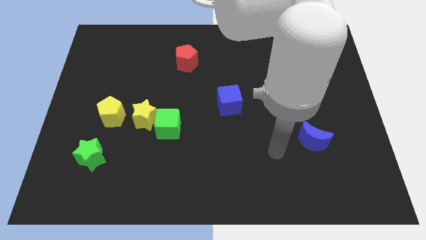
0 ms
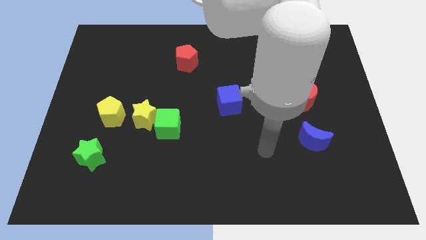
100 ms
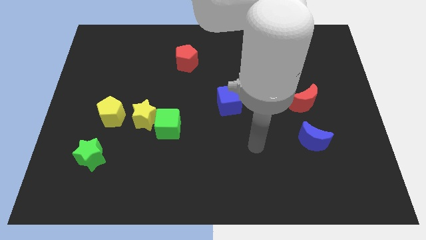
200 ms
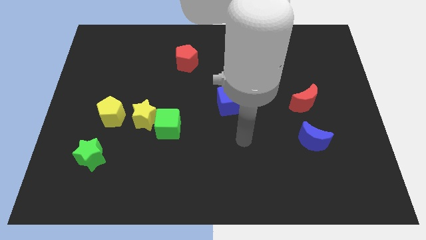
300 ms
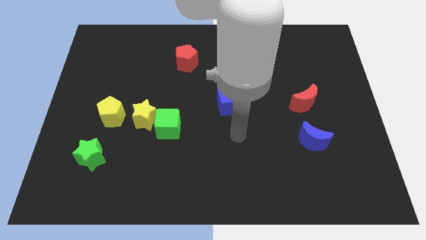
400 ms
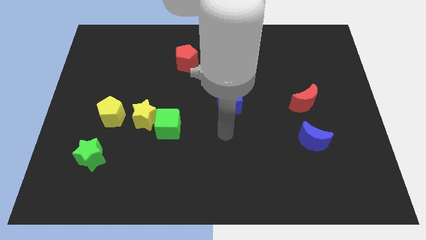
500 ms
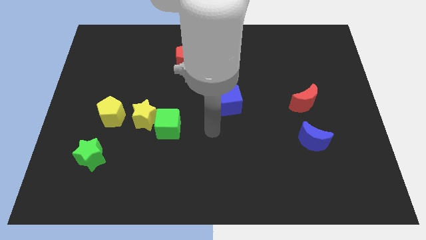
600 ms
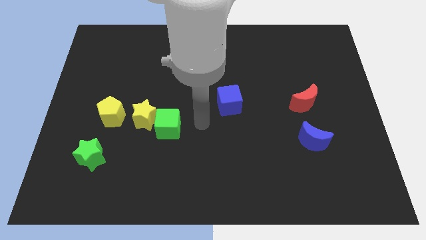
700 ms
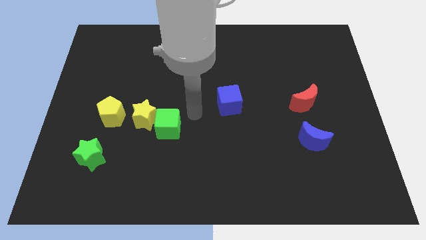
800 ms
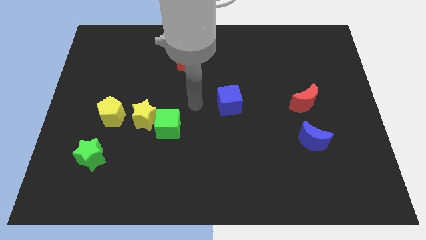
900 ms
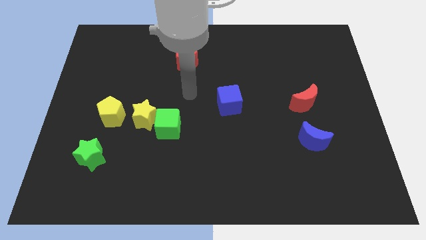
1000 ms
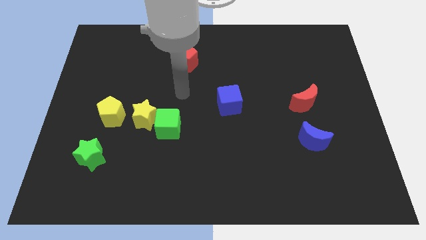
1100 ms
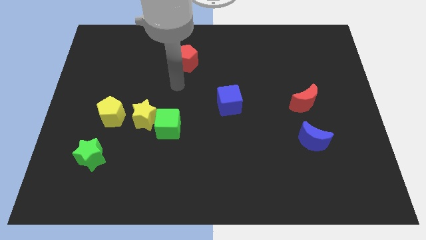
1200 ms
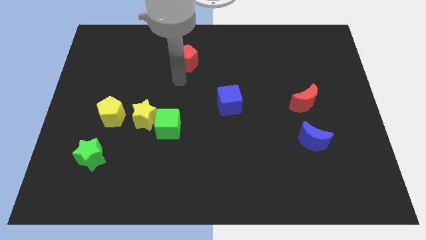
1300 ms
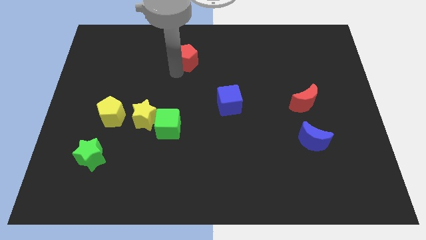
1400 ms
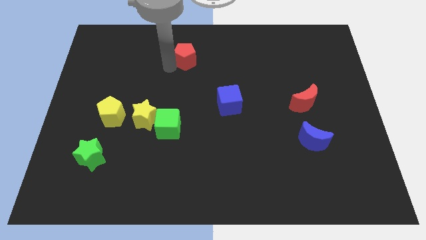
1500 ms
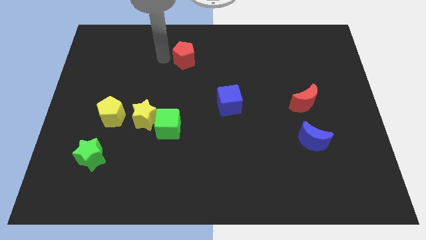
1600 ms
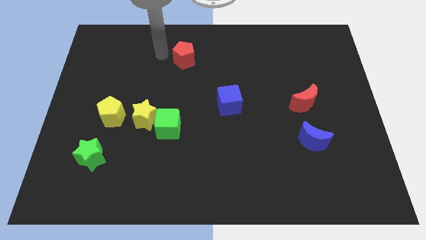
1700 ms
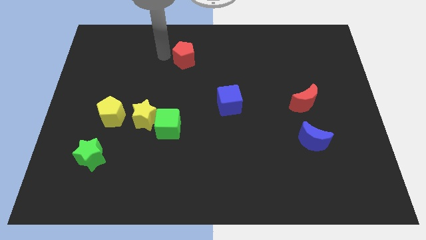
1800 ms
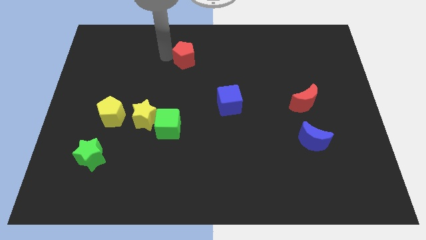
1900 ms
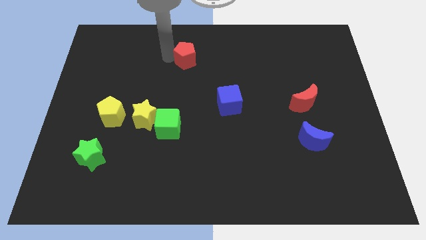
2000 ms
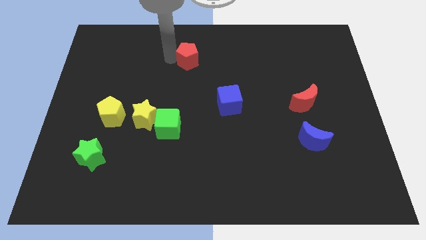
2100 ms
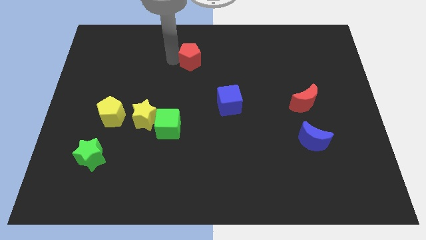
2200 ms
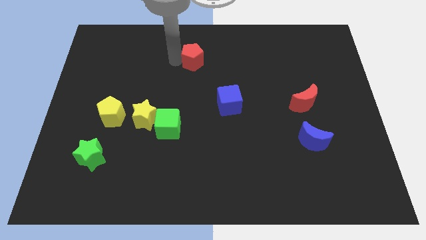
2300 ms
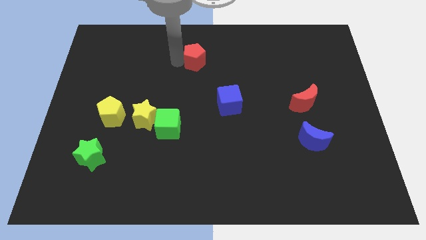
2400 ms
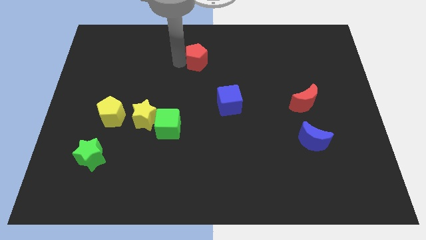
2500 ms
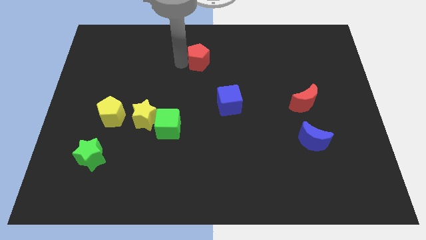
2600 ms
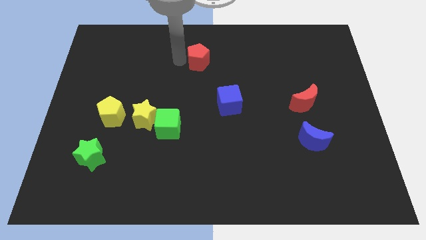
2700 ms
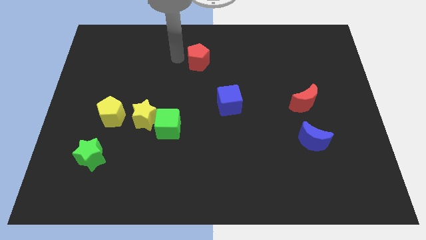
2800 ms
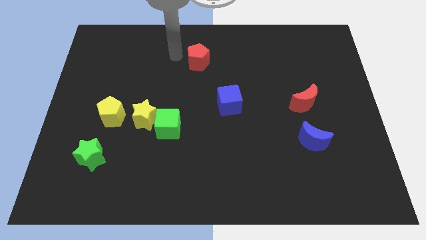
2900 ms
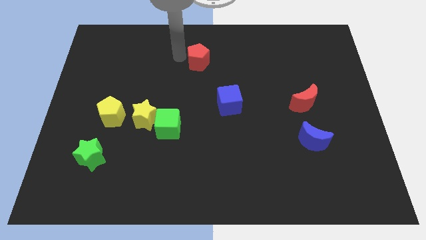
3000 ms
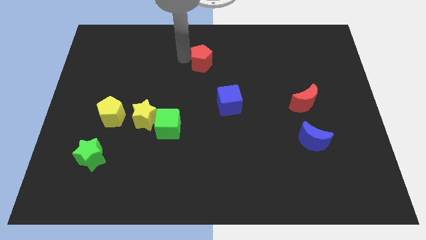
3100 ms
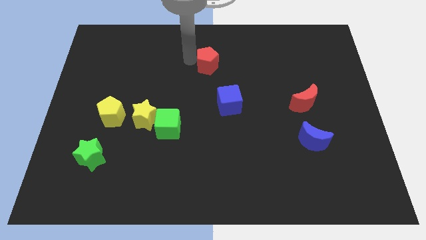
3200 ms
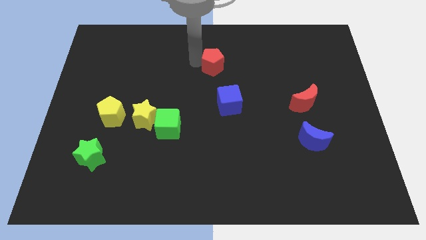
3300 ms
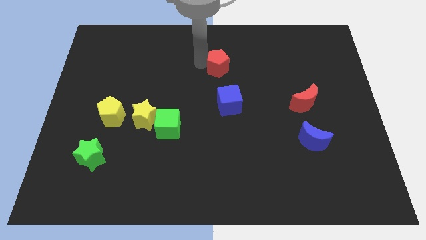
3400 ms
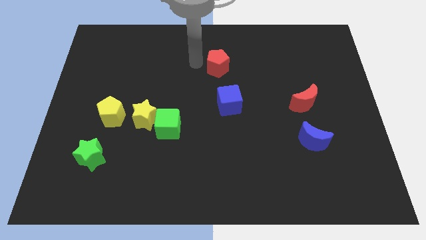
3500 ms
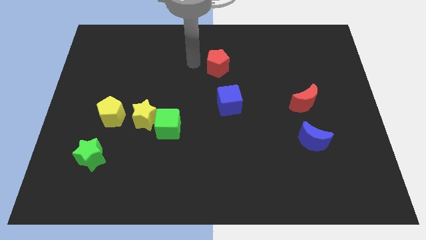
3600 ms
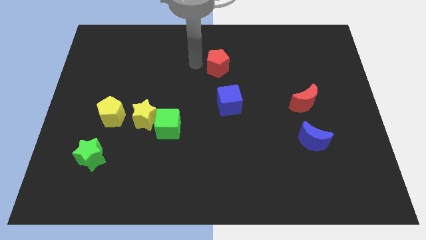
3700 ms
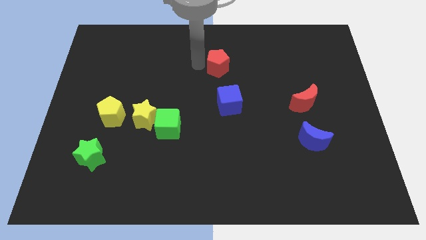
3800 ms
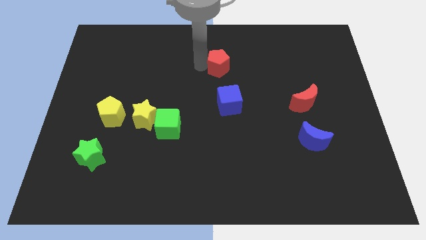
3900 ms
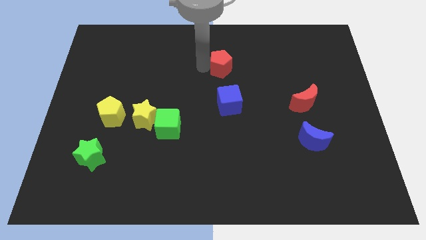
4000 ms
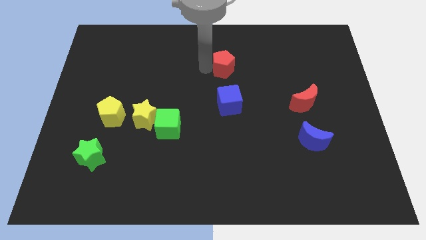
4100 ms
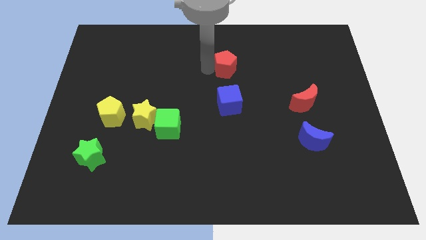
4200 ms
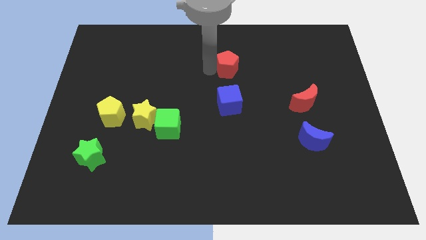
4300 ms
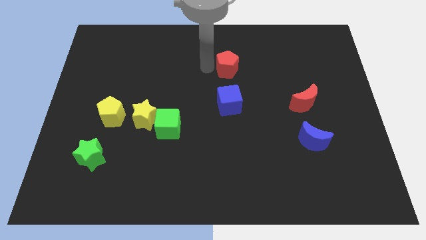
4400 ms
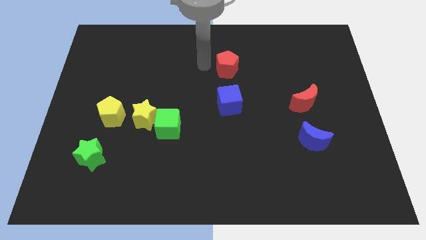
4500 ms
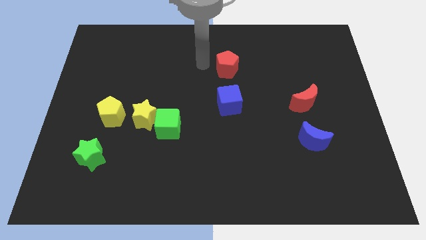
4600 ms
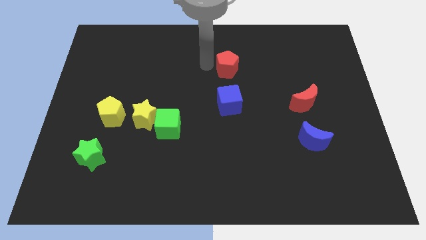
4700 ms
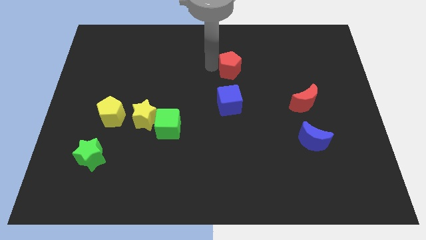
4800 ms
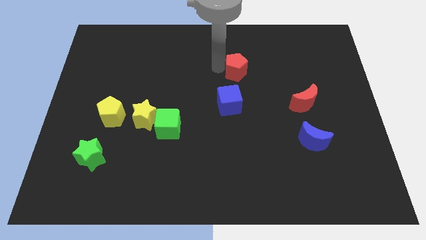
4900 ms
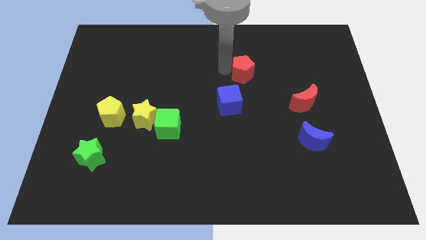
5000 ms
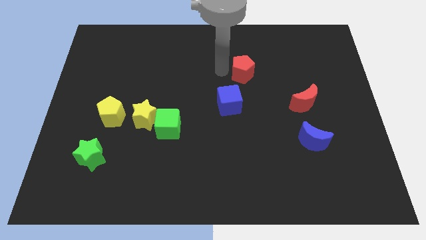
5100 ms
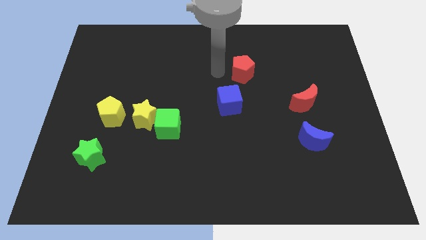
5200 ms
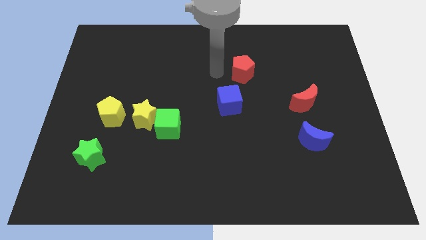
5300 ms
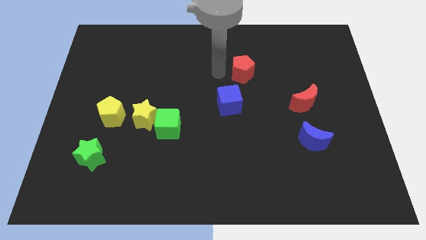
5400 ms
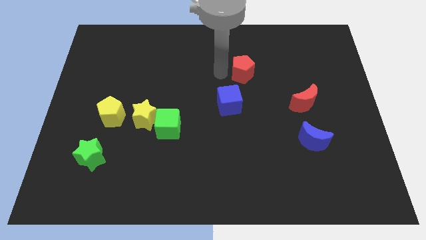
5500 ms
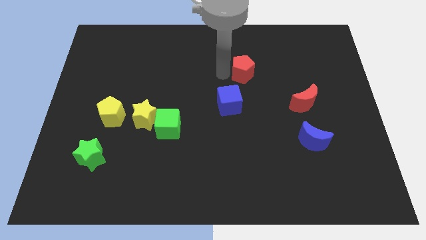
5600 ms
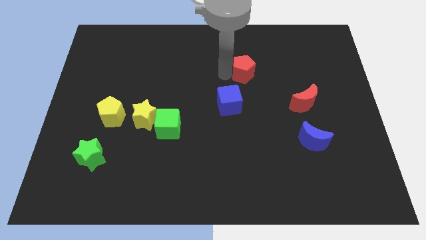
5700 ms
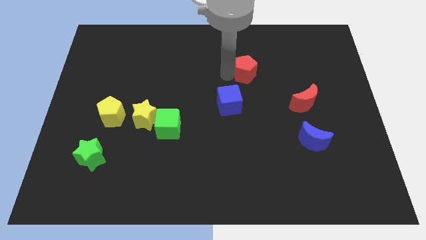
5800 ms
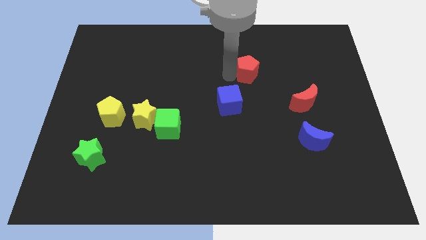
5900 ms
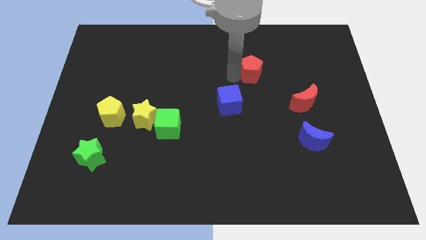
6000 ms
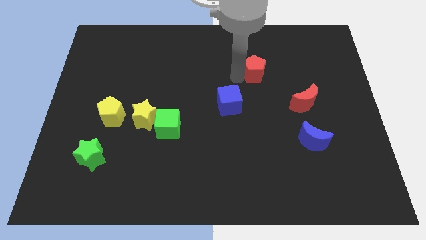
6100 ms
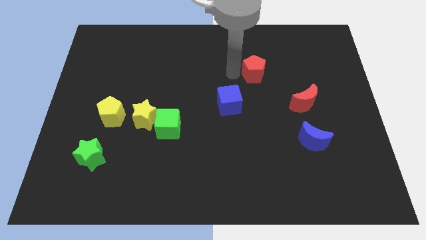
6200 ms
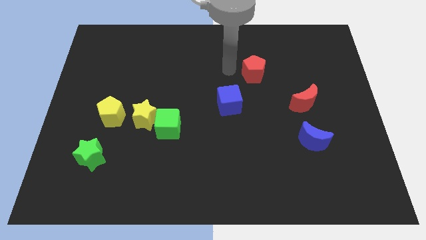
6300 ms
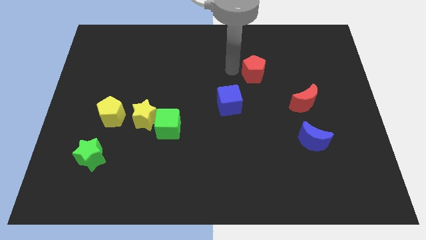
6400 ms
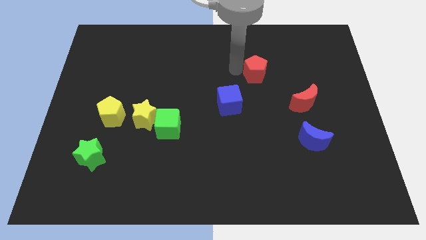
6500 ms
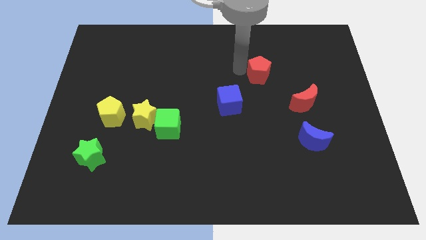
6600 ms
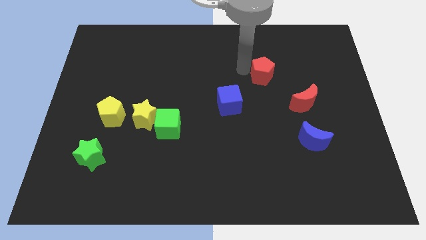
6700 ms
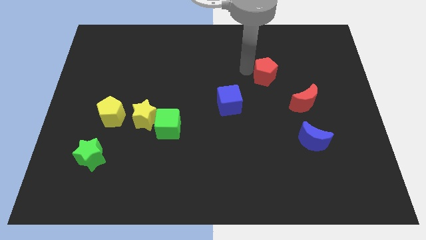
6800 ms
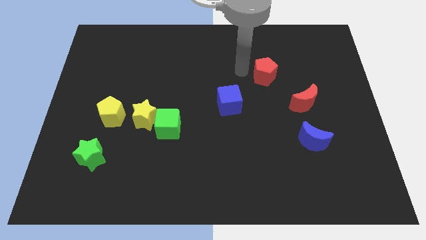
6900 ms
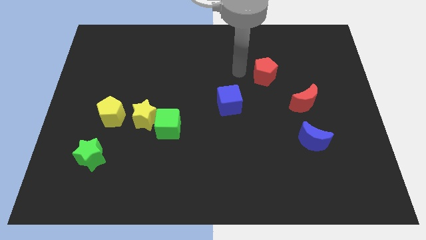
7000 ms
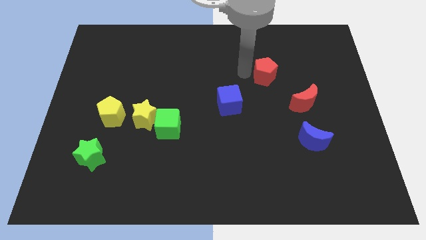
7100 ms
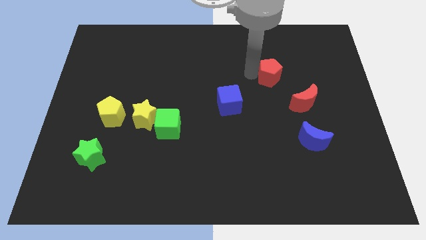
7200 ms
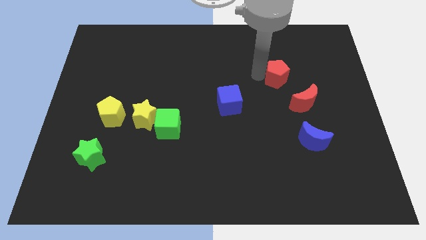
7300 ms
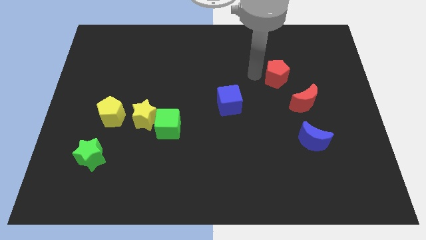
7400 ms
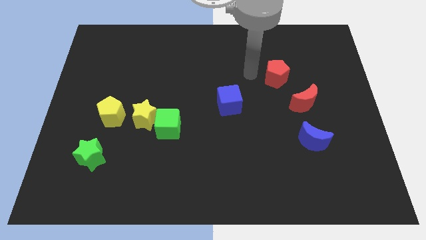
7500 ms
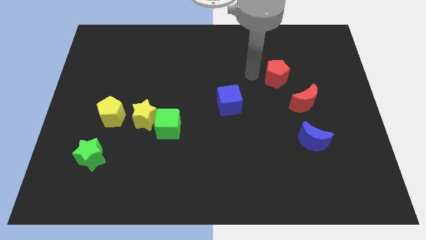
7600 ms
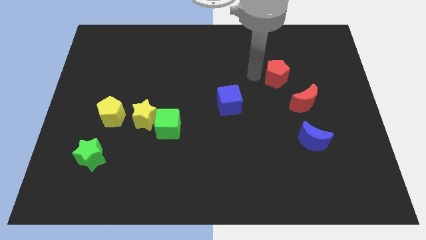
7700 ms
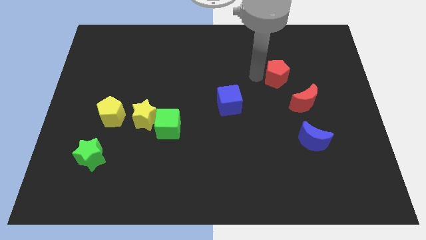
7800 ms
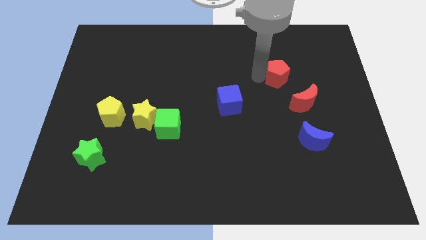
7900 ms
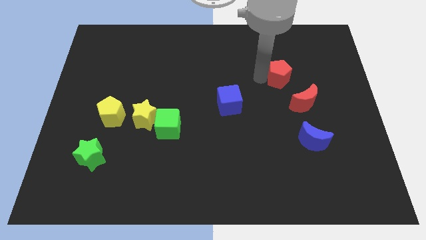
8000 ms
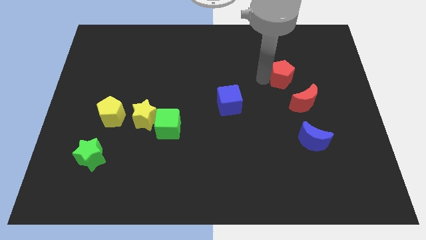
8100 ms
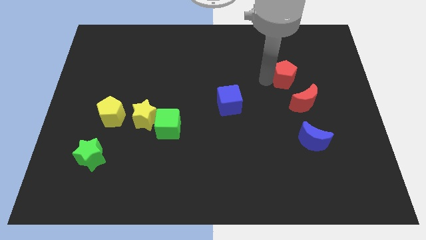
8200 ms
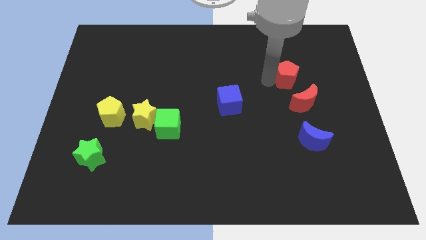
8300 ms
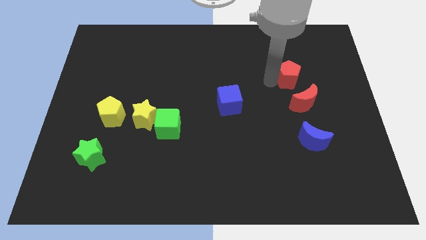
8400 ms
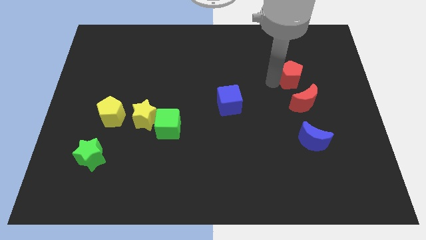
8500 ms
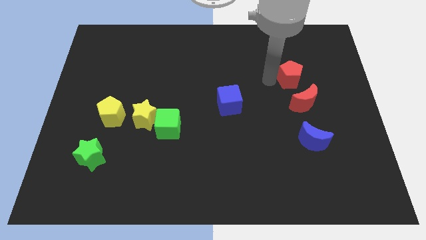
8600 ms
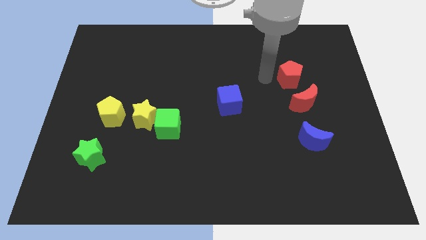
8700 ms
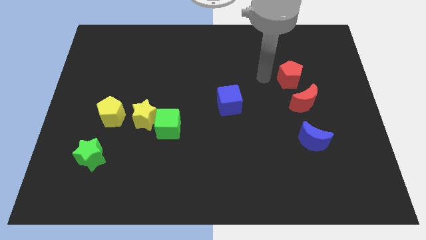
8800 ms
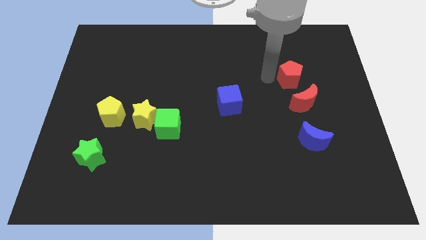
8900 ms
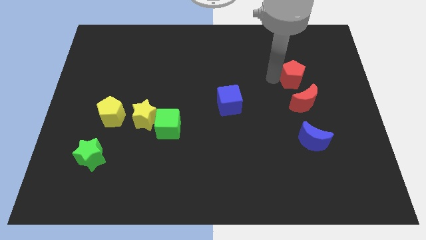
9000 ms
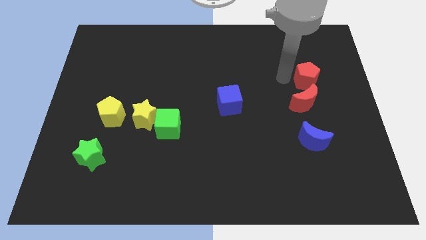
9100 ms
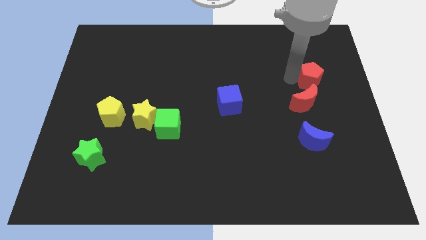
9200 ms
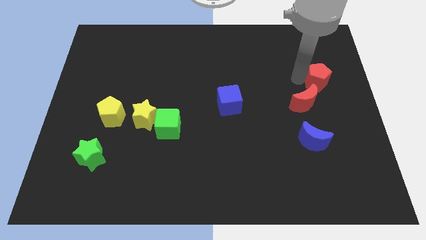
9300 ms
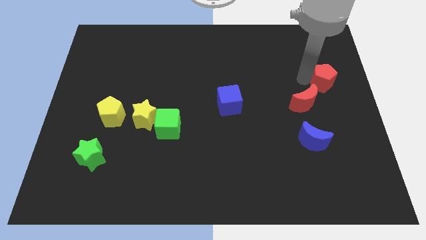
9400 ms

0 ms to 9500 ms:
move the red pentagon to the right side
